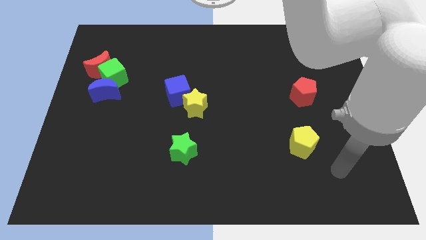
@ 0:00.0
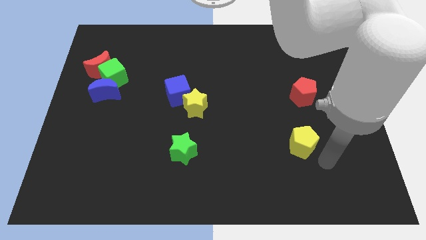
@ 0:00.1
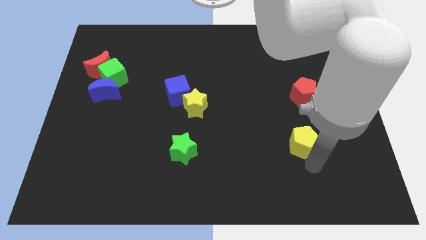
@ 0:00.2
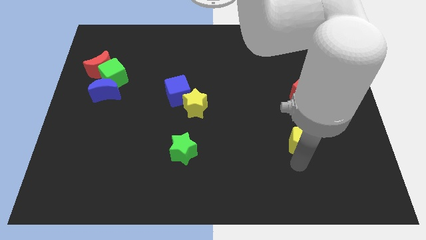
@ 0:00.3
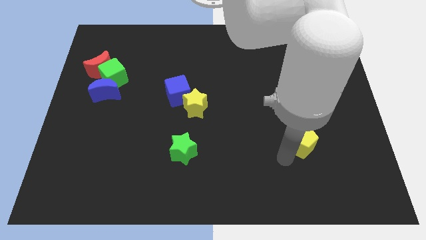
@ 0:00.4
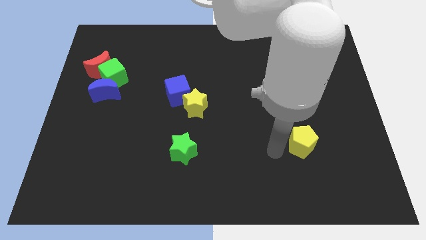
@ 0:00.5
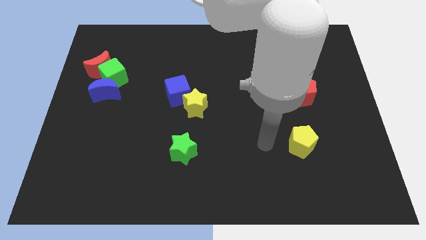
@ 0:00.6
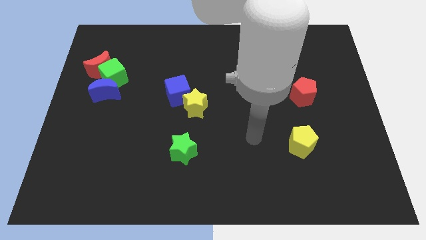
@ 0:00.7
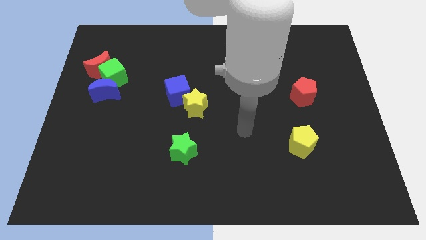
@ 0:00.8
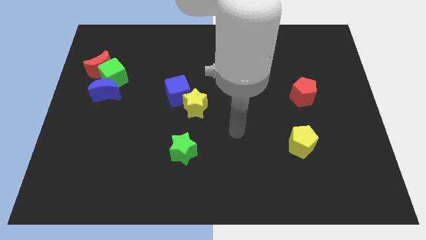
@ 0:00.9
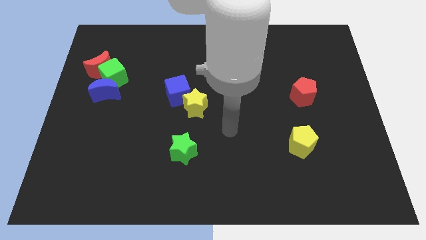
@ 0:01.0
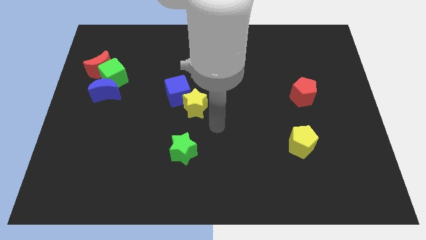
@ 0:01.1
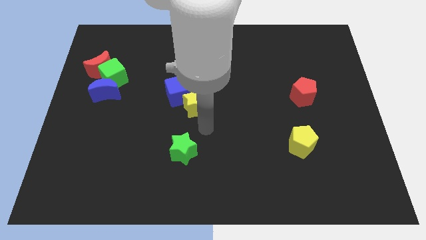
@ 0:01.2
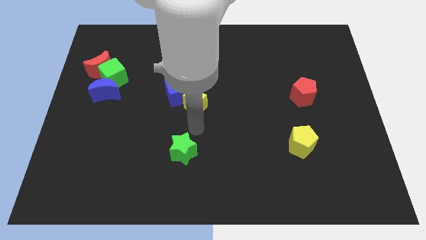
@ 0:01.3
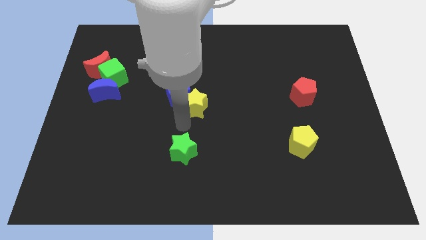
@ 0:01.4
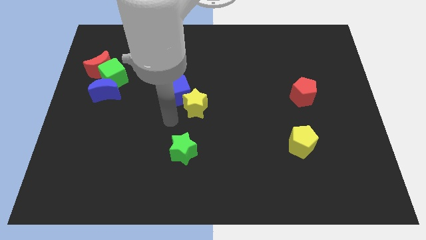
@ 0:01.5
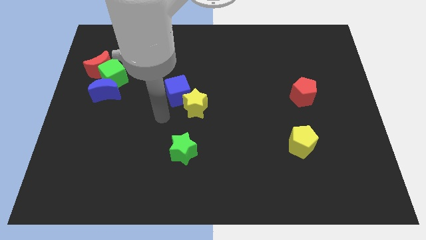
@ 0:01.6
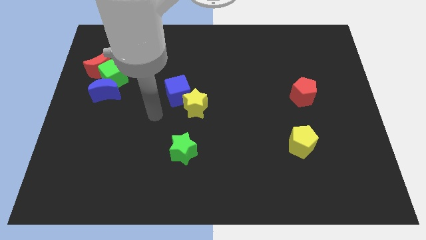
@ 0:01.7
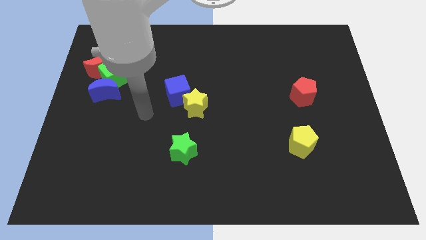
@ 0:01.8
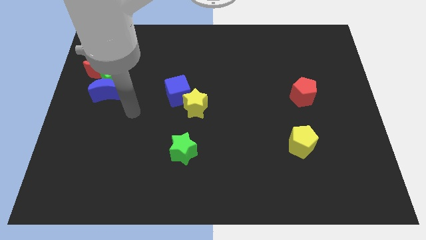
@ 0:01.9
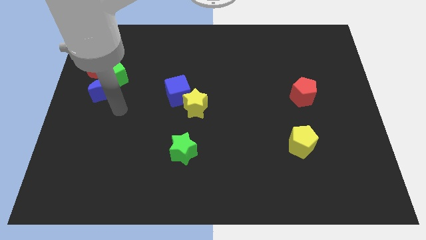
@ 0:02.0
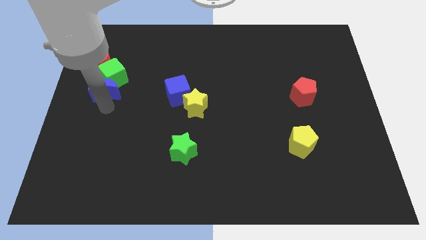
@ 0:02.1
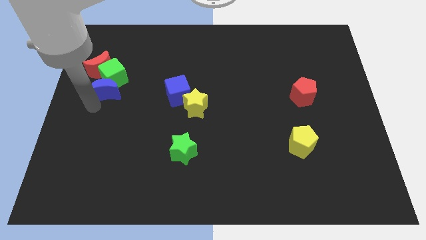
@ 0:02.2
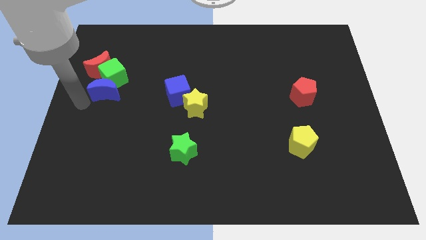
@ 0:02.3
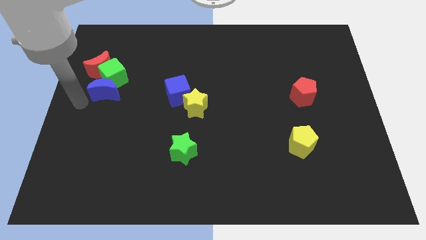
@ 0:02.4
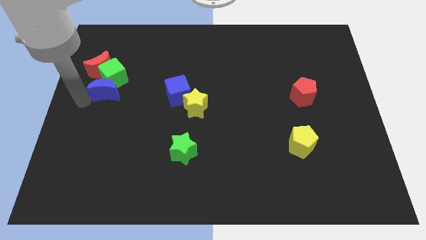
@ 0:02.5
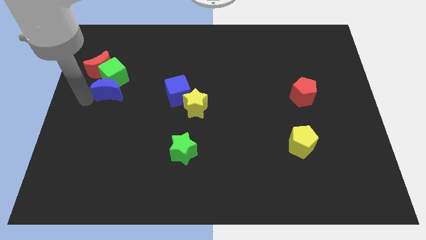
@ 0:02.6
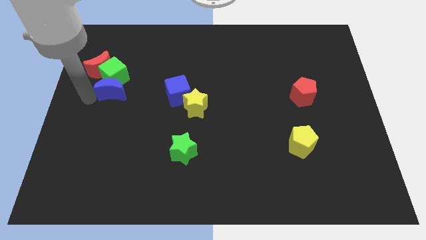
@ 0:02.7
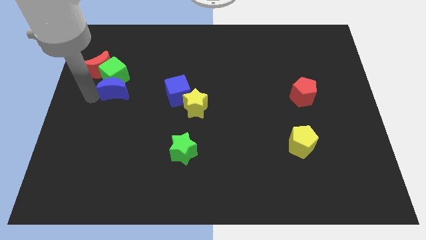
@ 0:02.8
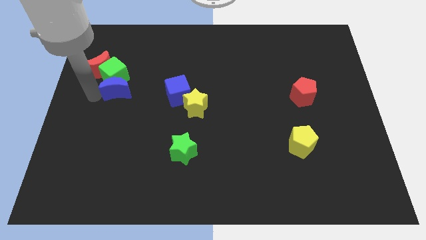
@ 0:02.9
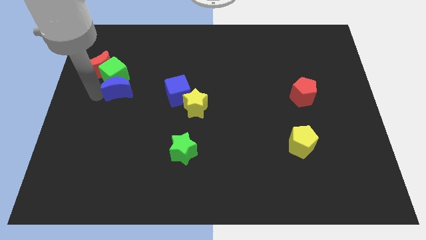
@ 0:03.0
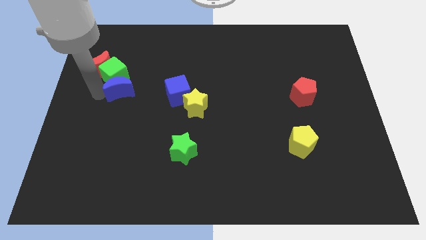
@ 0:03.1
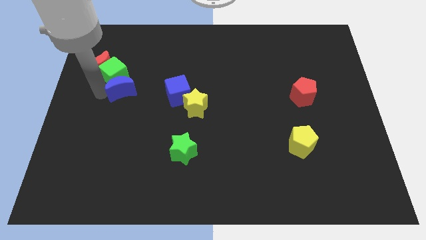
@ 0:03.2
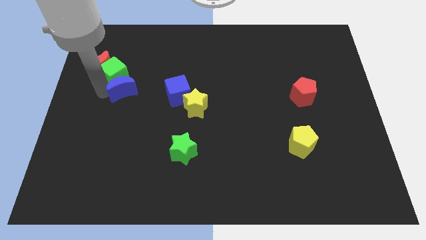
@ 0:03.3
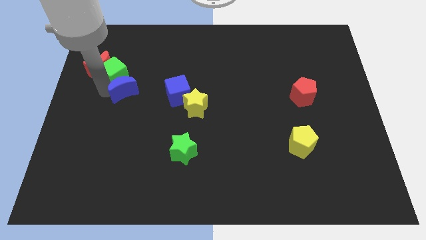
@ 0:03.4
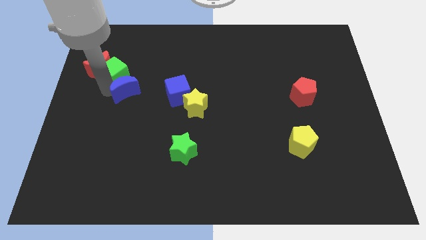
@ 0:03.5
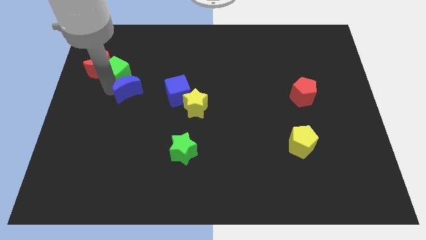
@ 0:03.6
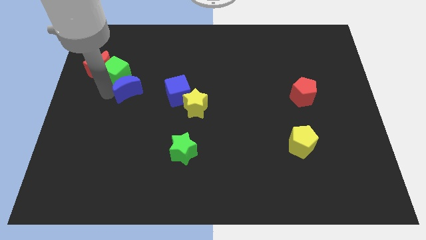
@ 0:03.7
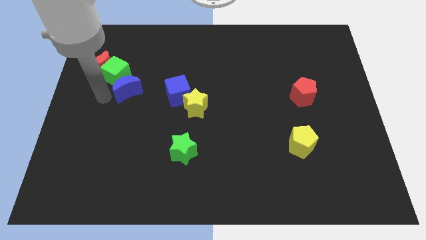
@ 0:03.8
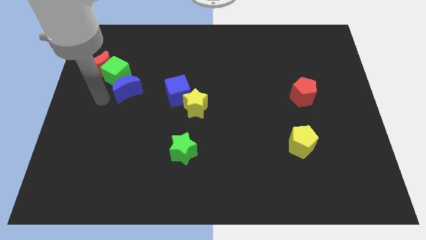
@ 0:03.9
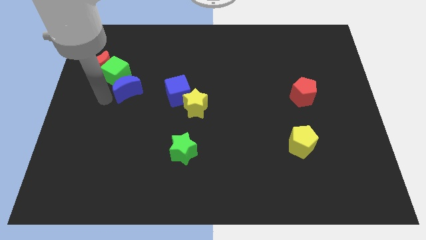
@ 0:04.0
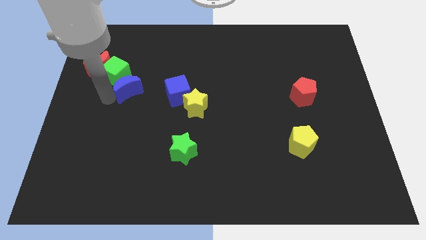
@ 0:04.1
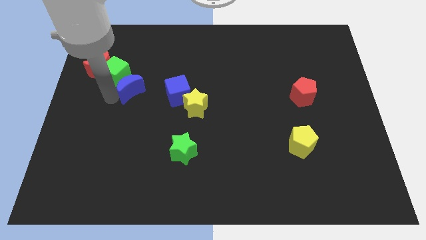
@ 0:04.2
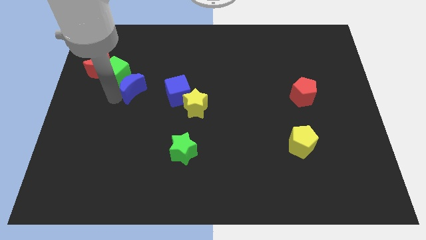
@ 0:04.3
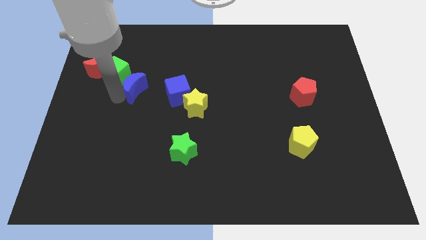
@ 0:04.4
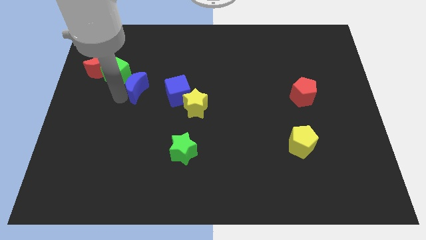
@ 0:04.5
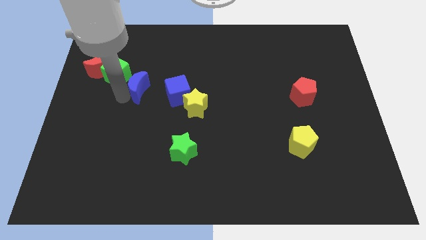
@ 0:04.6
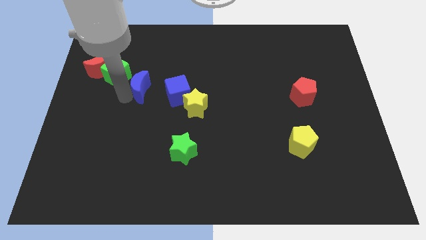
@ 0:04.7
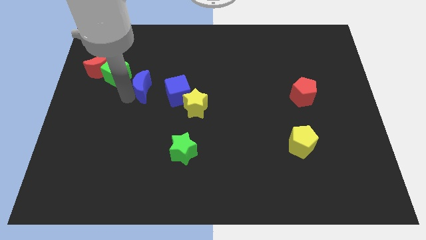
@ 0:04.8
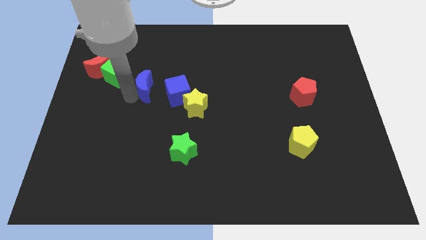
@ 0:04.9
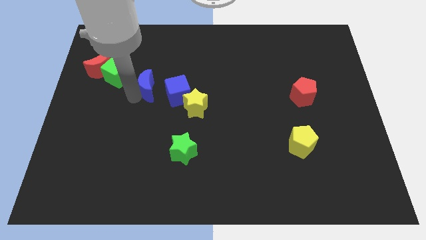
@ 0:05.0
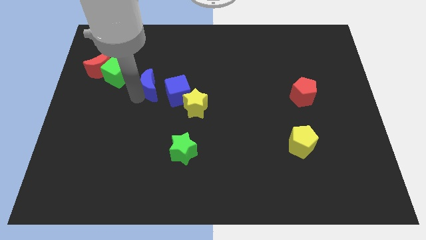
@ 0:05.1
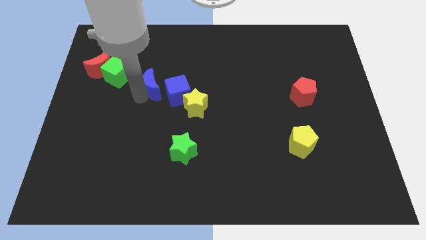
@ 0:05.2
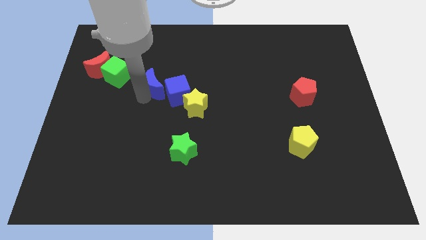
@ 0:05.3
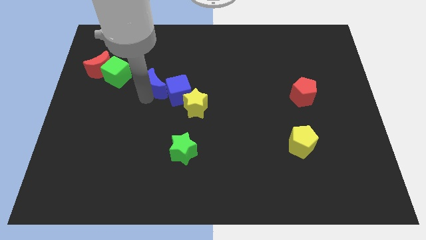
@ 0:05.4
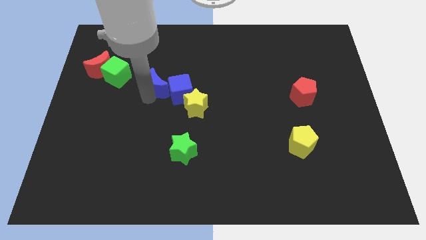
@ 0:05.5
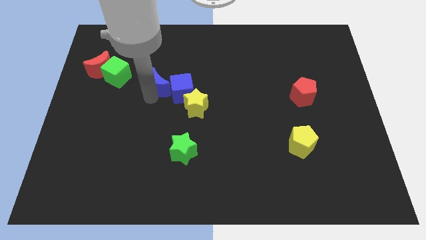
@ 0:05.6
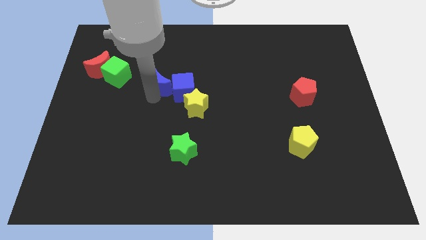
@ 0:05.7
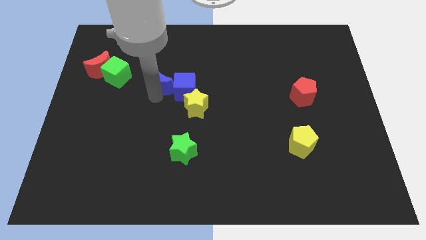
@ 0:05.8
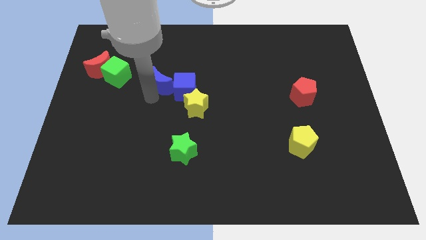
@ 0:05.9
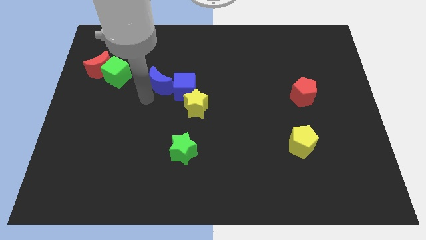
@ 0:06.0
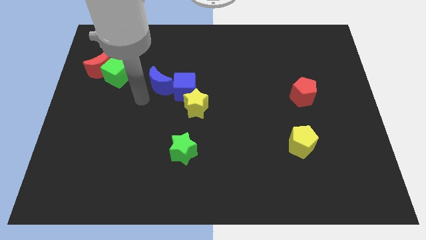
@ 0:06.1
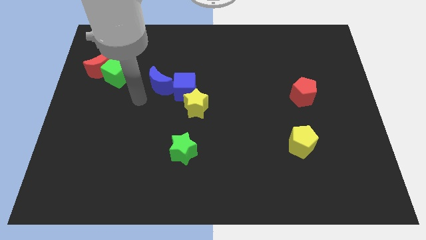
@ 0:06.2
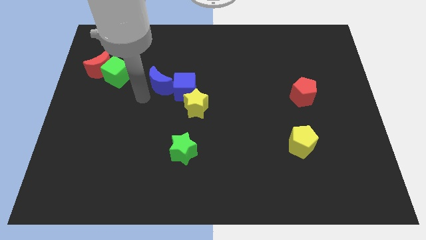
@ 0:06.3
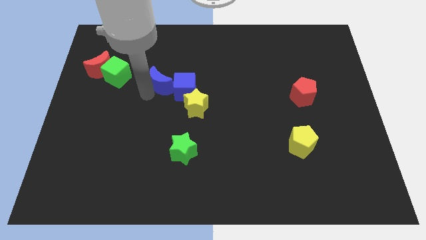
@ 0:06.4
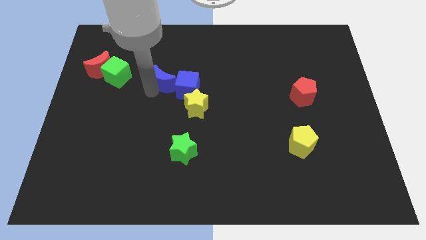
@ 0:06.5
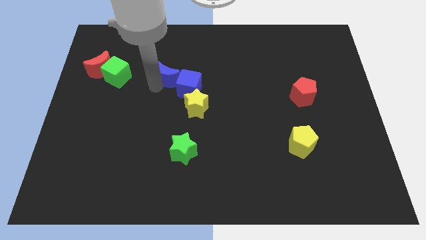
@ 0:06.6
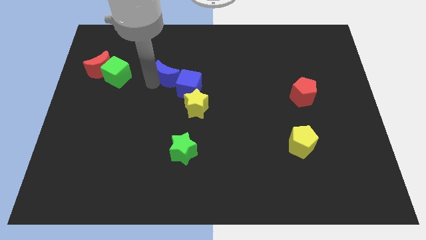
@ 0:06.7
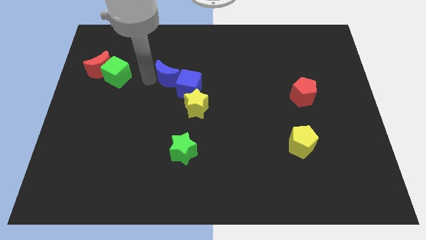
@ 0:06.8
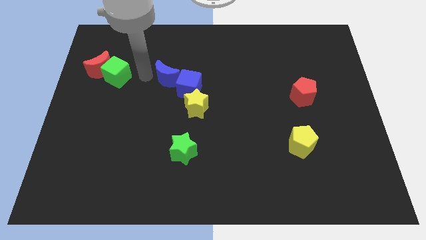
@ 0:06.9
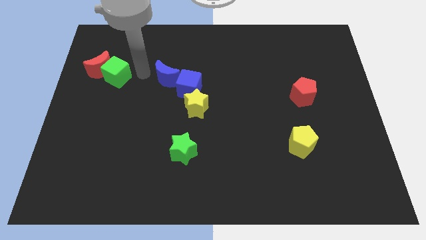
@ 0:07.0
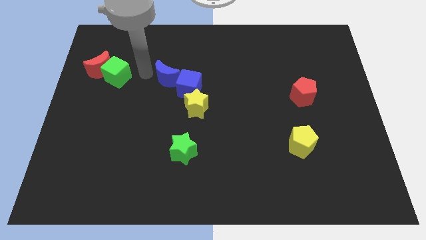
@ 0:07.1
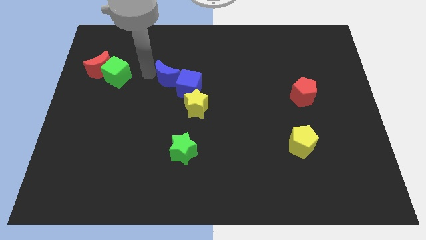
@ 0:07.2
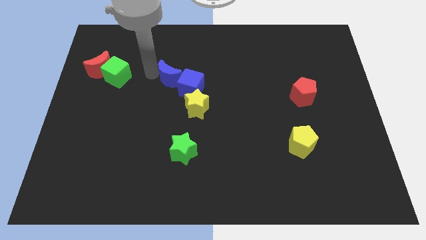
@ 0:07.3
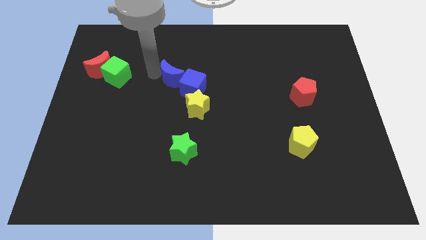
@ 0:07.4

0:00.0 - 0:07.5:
slide the blue moon to the center
